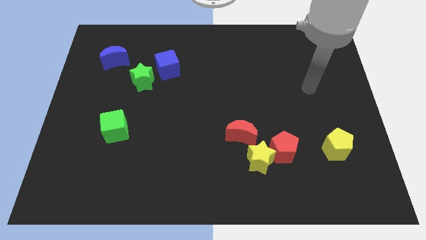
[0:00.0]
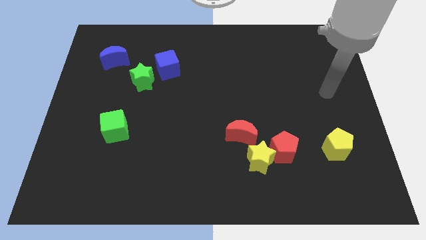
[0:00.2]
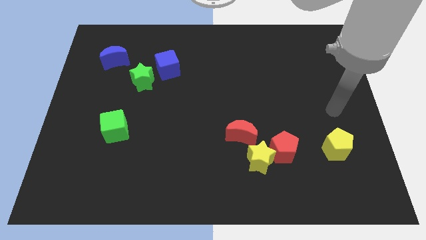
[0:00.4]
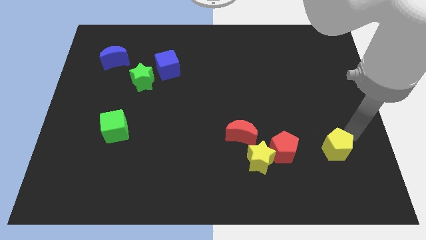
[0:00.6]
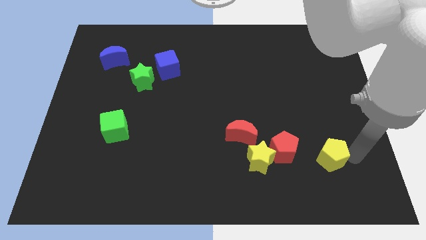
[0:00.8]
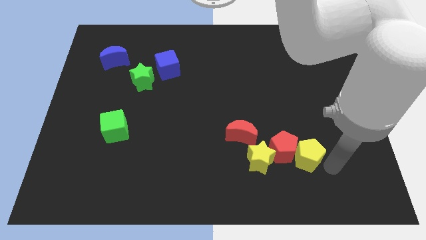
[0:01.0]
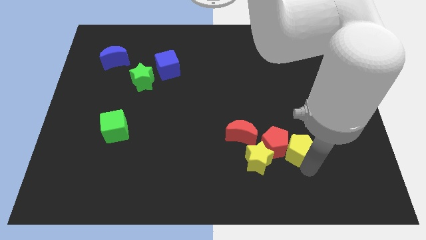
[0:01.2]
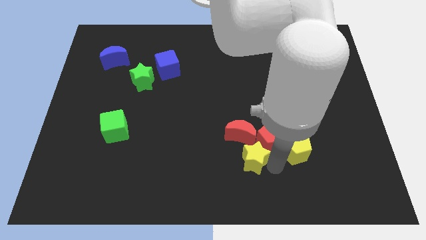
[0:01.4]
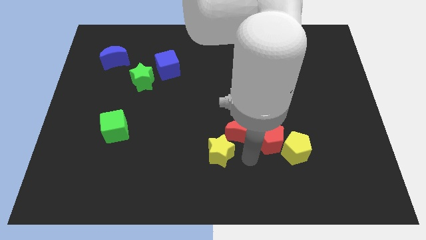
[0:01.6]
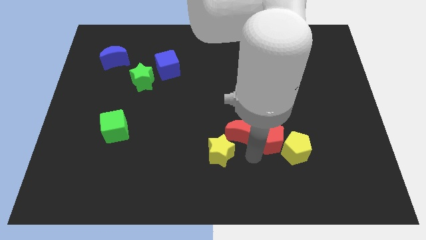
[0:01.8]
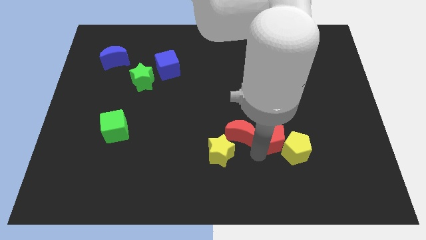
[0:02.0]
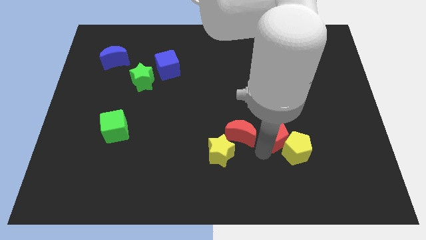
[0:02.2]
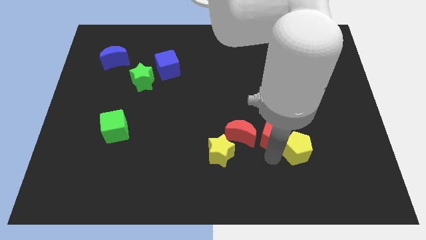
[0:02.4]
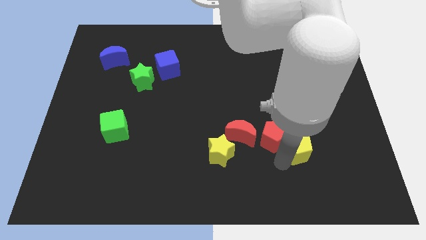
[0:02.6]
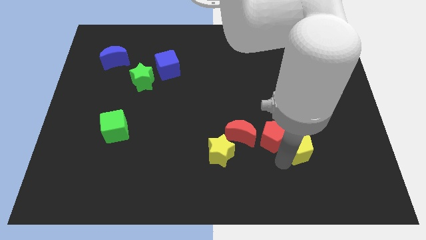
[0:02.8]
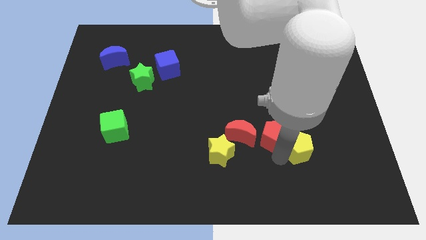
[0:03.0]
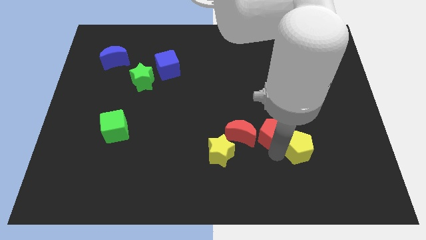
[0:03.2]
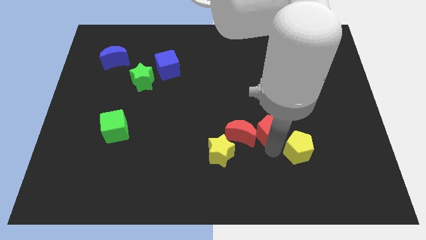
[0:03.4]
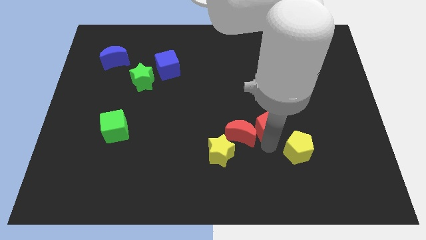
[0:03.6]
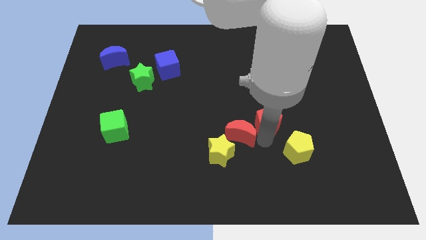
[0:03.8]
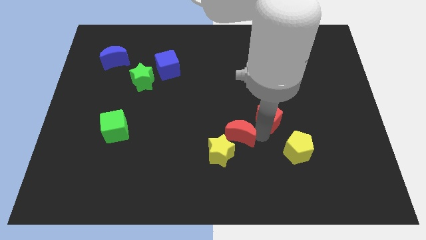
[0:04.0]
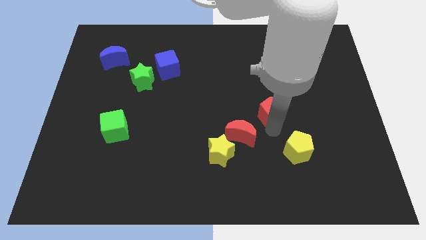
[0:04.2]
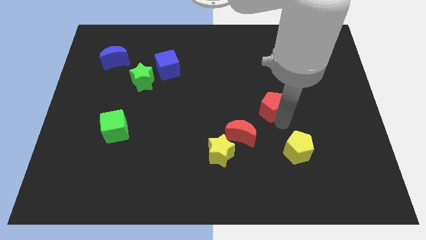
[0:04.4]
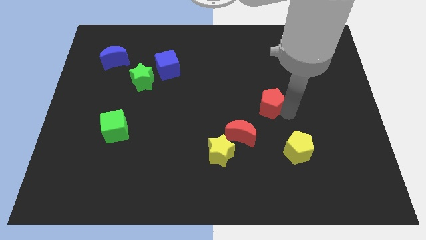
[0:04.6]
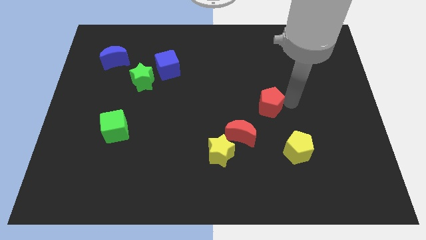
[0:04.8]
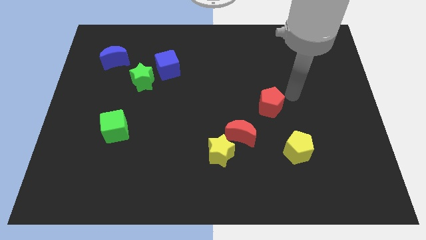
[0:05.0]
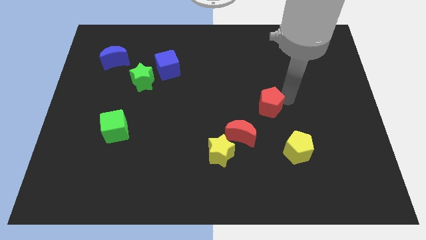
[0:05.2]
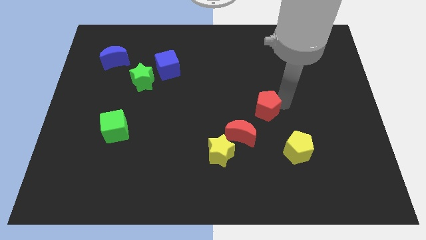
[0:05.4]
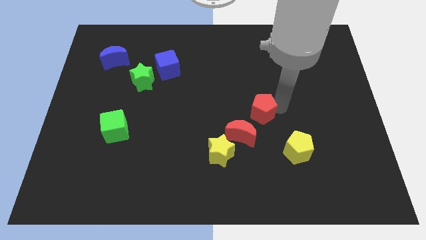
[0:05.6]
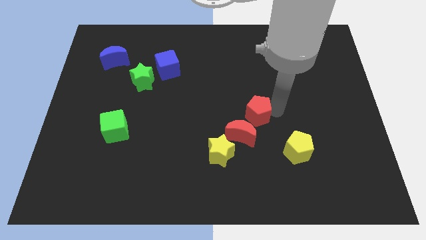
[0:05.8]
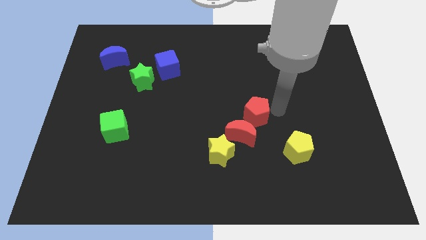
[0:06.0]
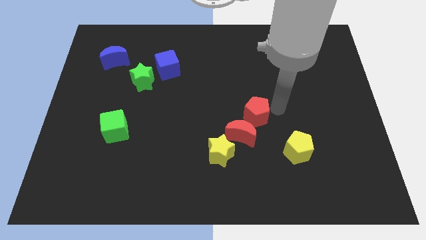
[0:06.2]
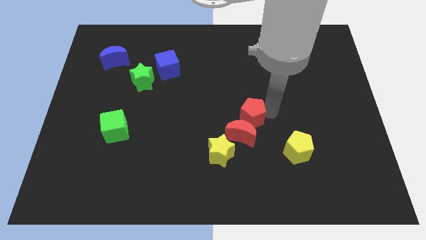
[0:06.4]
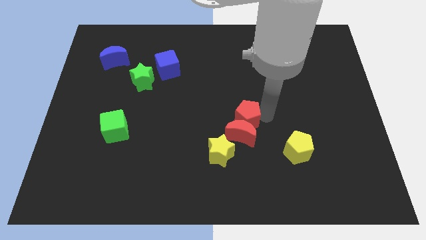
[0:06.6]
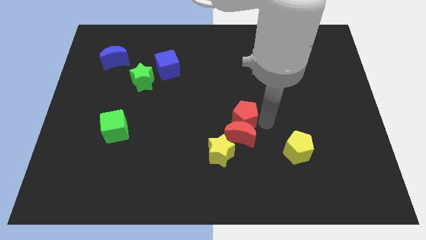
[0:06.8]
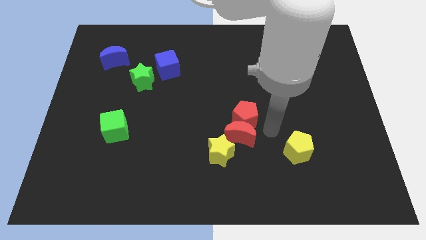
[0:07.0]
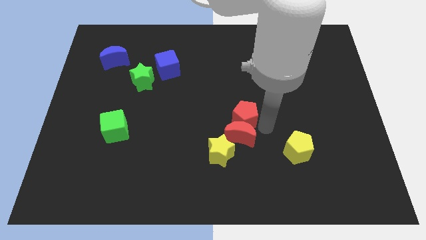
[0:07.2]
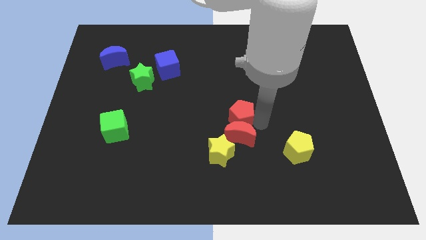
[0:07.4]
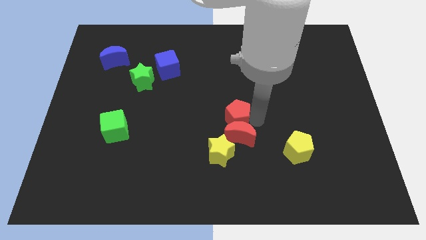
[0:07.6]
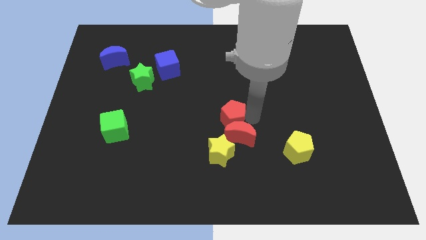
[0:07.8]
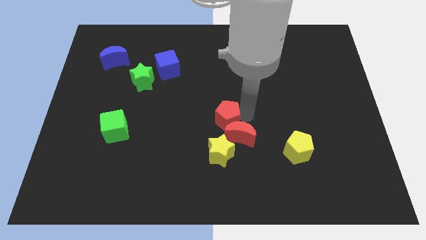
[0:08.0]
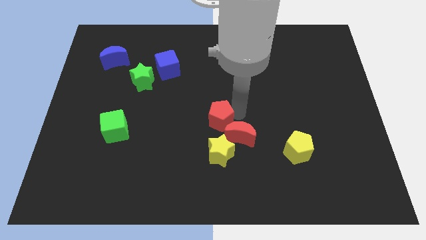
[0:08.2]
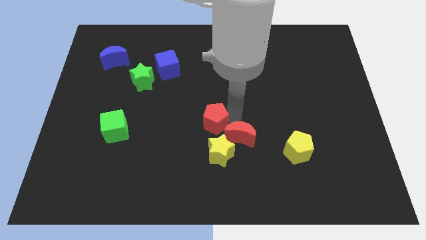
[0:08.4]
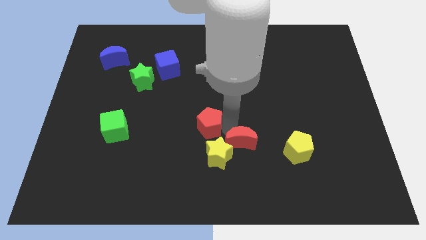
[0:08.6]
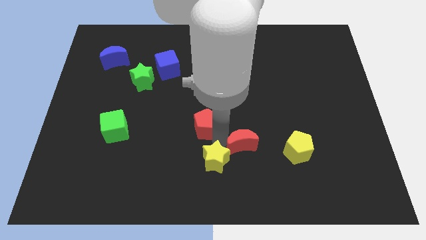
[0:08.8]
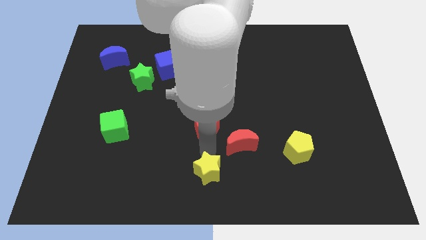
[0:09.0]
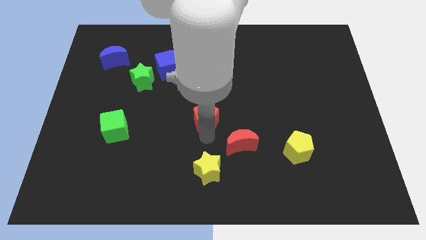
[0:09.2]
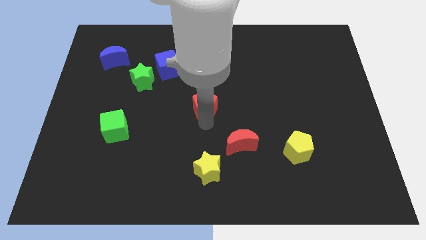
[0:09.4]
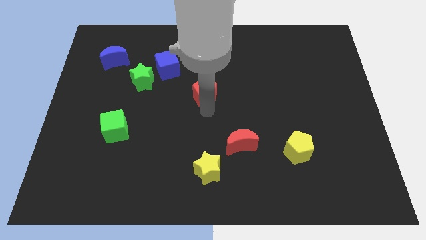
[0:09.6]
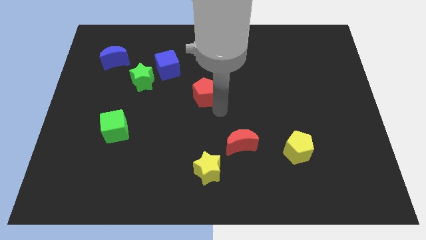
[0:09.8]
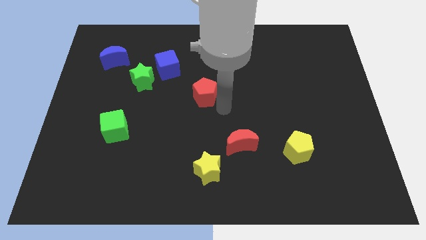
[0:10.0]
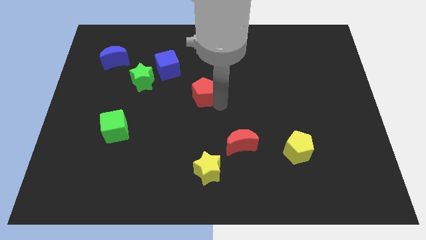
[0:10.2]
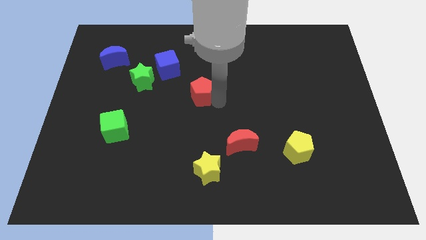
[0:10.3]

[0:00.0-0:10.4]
push the red pentagon to the bottom right side of the blue cube

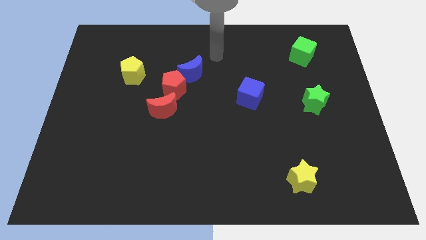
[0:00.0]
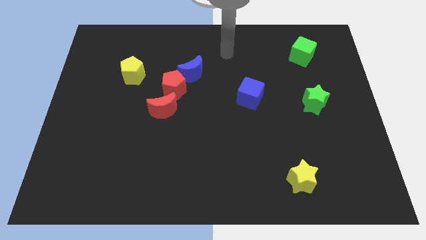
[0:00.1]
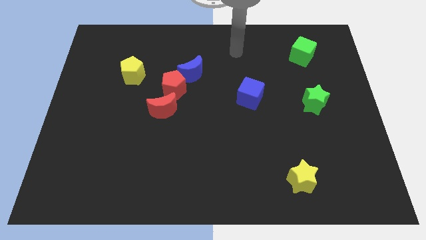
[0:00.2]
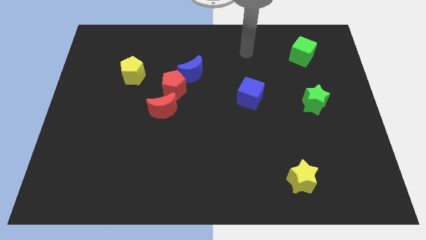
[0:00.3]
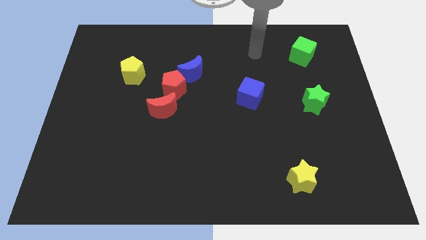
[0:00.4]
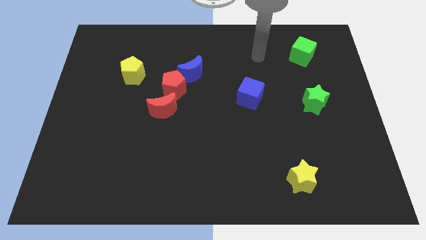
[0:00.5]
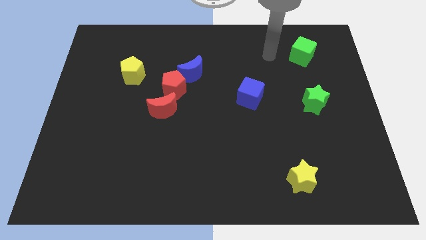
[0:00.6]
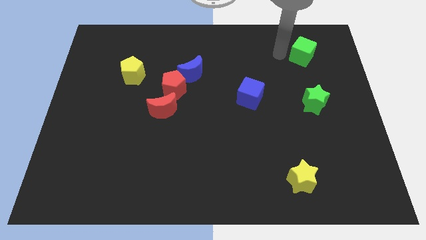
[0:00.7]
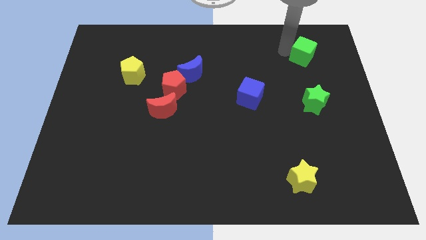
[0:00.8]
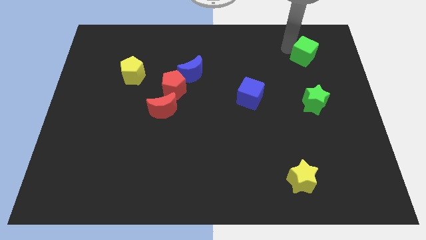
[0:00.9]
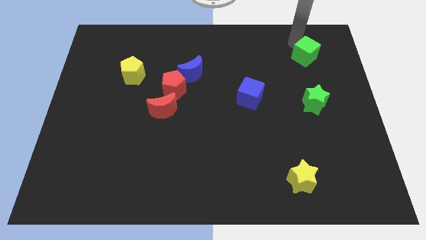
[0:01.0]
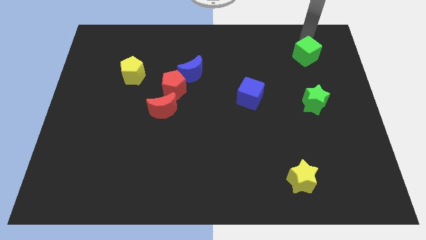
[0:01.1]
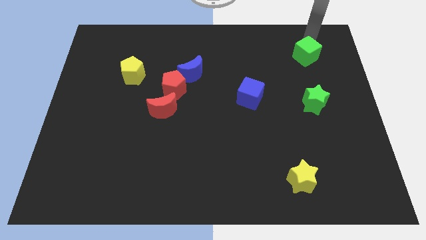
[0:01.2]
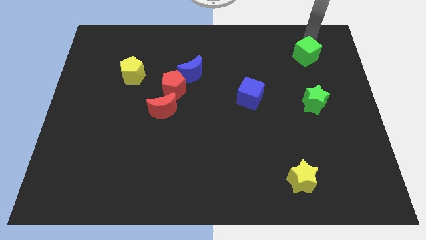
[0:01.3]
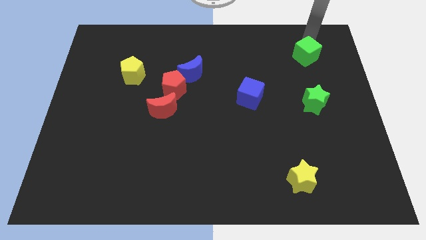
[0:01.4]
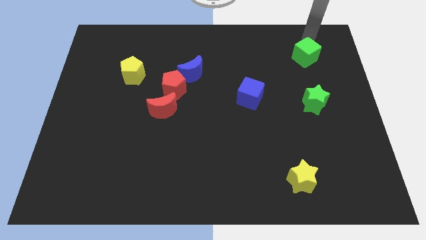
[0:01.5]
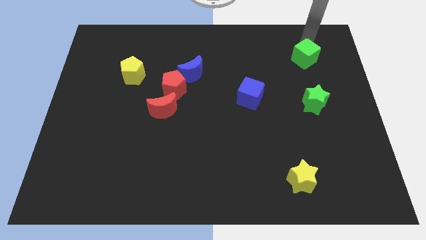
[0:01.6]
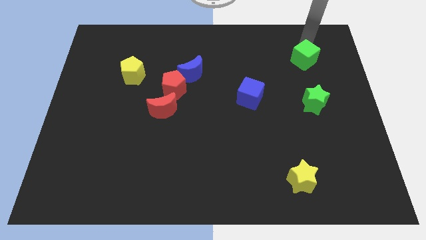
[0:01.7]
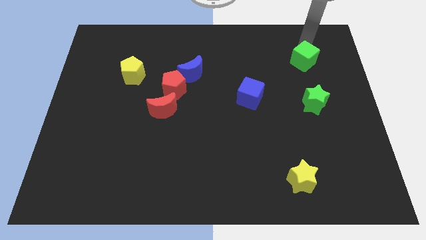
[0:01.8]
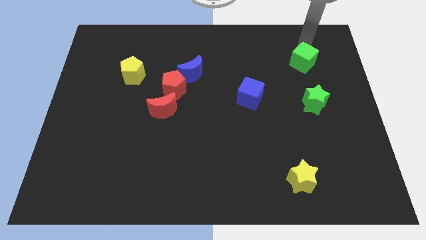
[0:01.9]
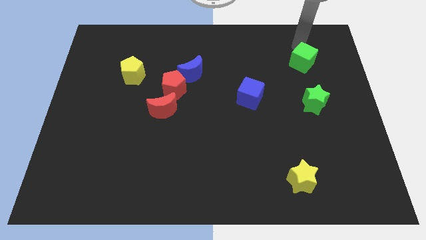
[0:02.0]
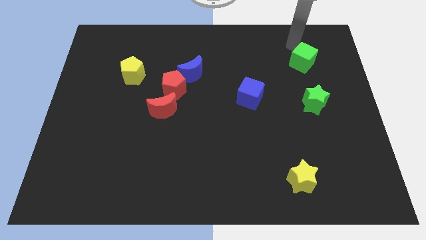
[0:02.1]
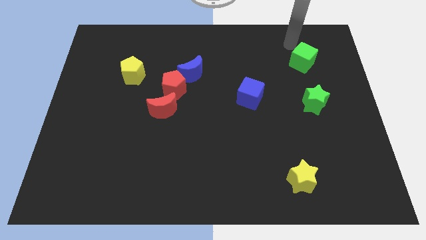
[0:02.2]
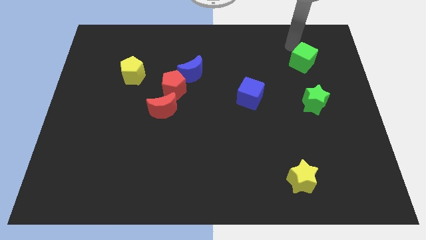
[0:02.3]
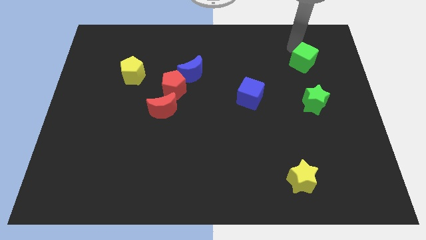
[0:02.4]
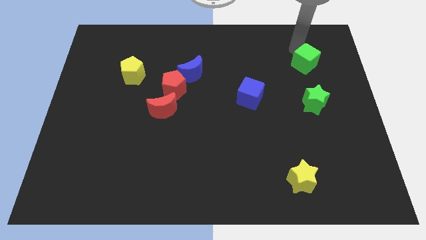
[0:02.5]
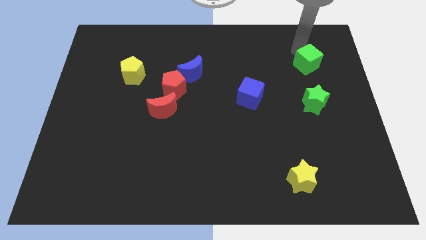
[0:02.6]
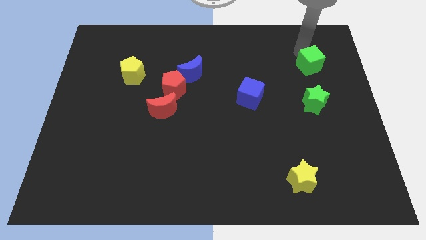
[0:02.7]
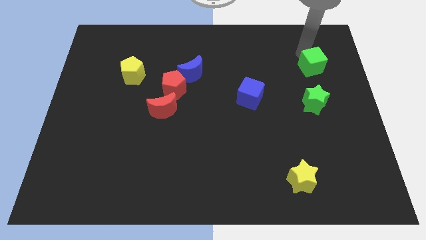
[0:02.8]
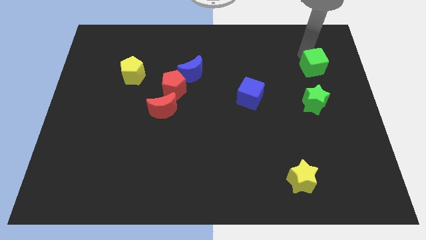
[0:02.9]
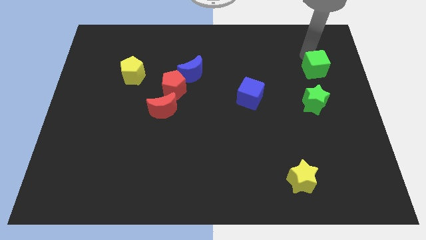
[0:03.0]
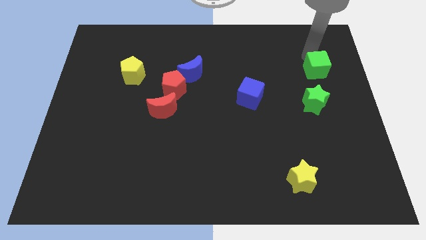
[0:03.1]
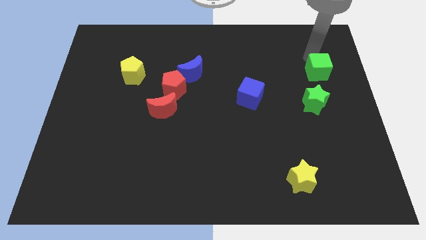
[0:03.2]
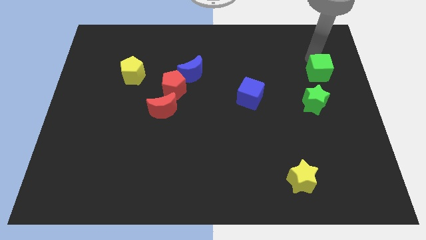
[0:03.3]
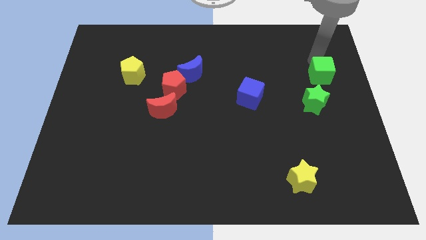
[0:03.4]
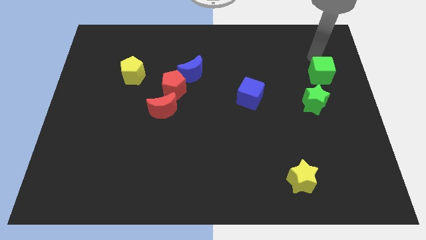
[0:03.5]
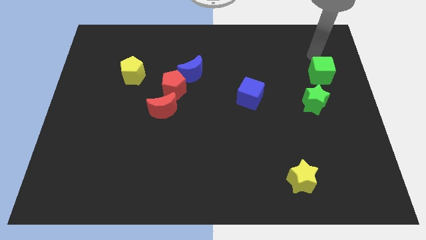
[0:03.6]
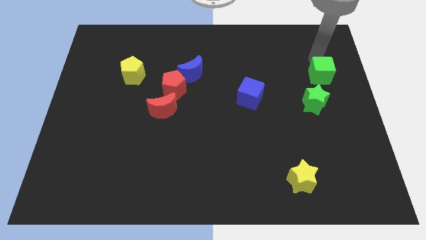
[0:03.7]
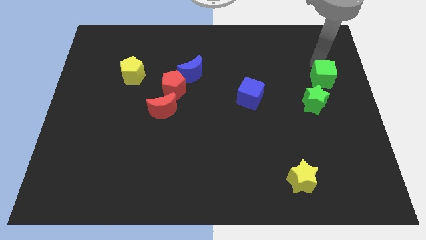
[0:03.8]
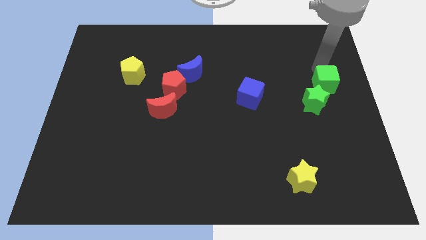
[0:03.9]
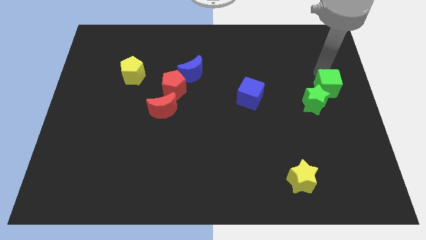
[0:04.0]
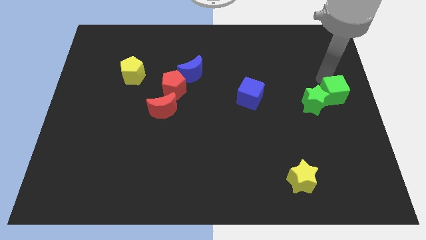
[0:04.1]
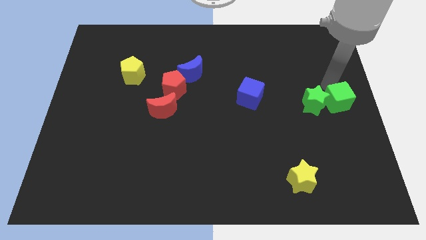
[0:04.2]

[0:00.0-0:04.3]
move the green cube diagonally down and to the right of the green star
